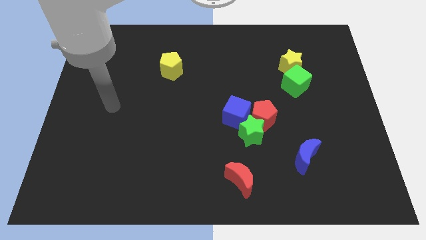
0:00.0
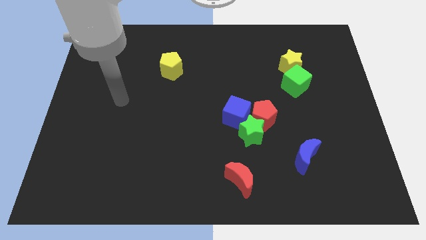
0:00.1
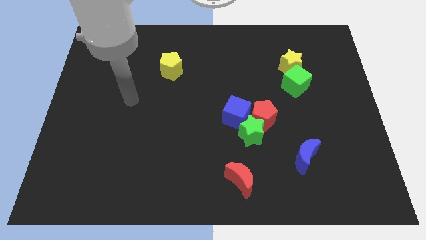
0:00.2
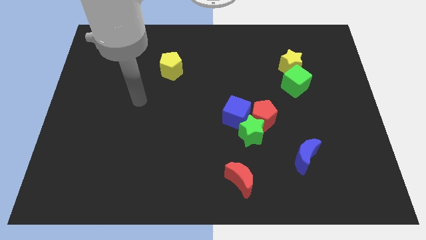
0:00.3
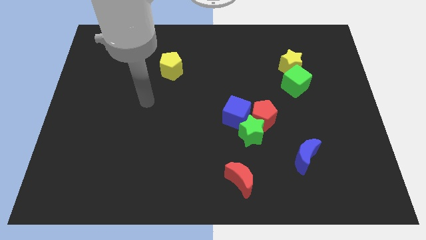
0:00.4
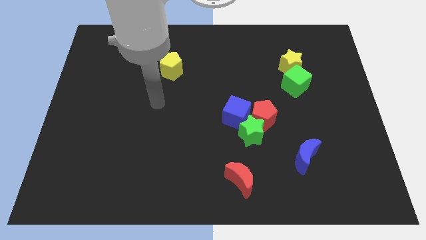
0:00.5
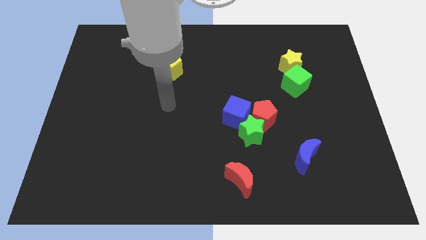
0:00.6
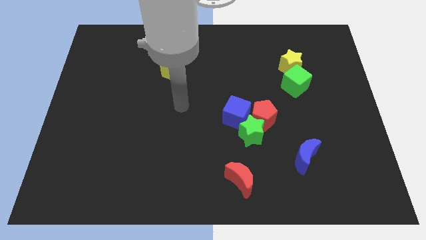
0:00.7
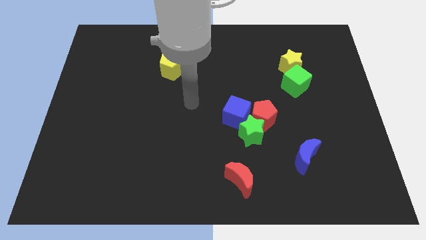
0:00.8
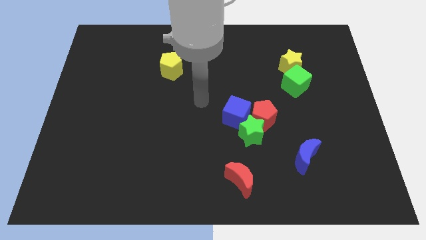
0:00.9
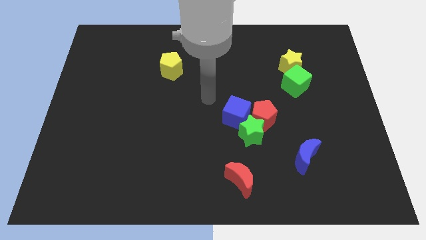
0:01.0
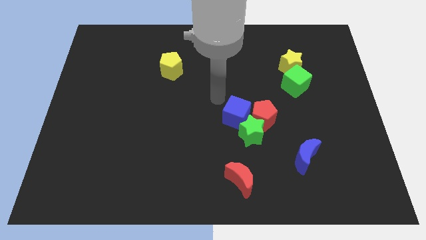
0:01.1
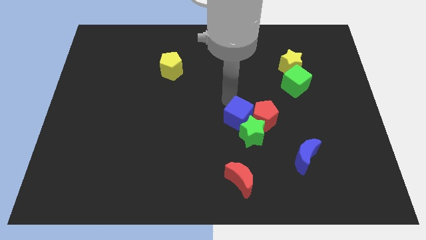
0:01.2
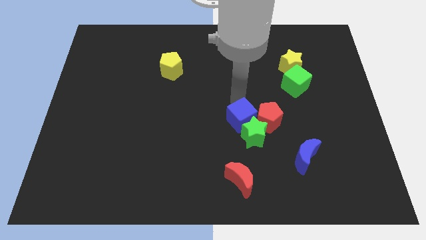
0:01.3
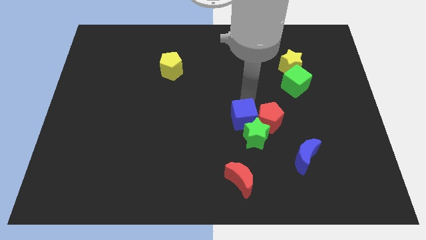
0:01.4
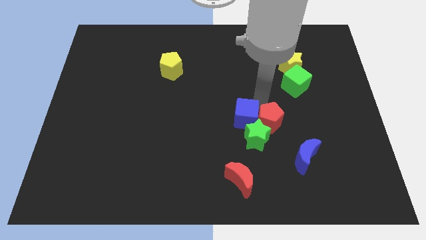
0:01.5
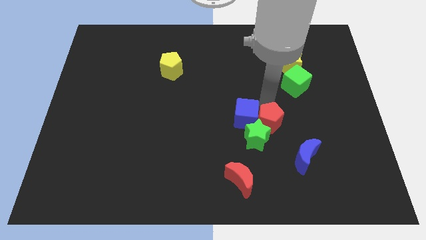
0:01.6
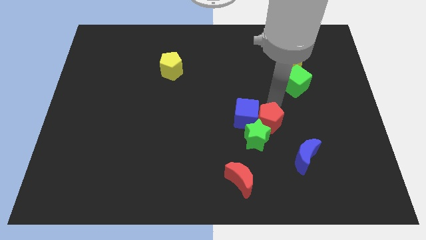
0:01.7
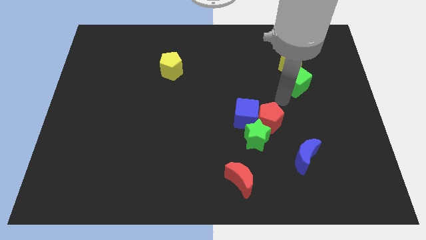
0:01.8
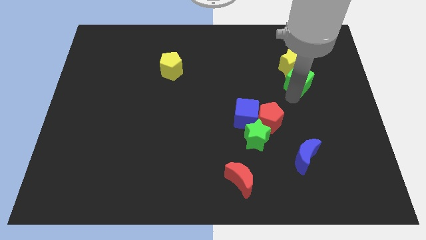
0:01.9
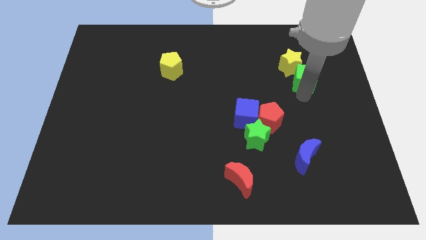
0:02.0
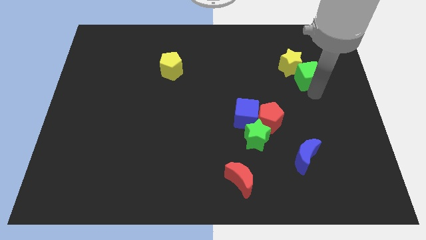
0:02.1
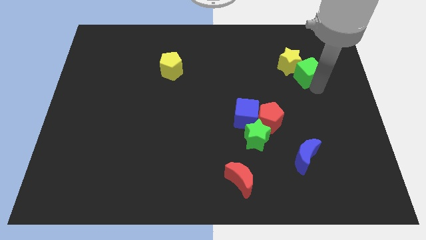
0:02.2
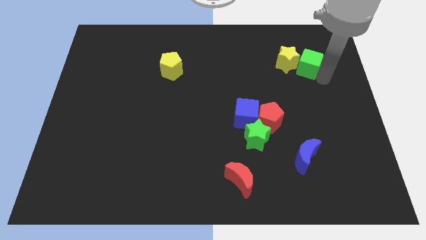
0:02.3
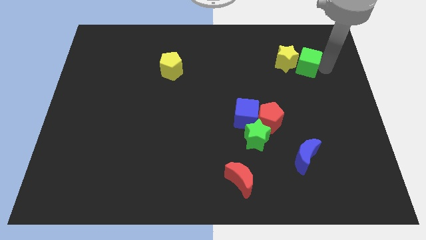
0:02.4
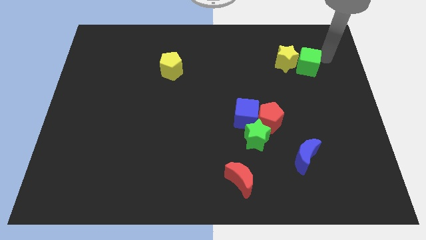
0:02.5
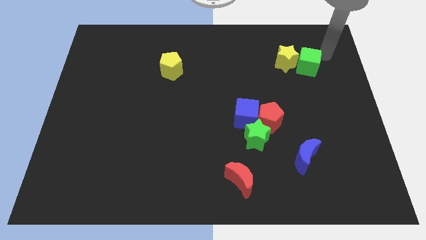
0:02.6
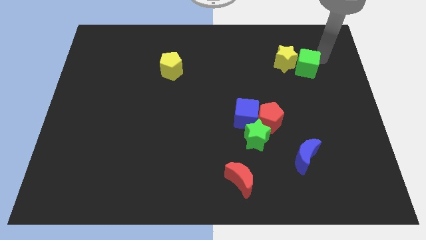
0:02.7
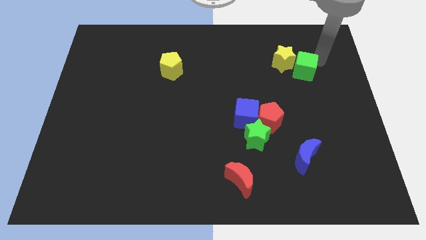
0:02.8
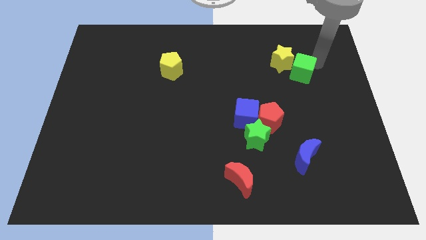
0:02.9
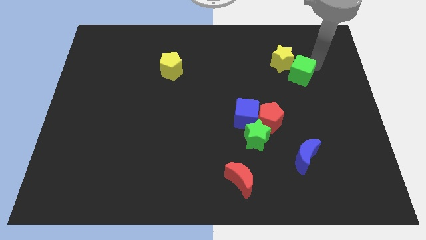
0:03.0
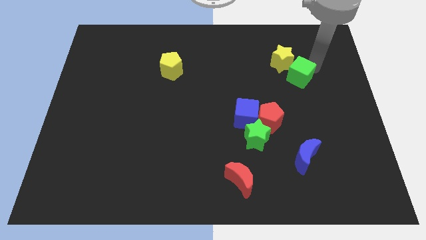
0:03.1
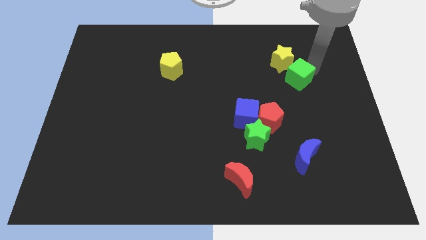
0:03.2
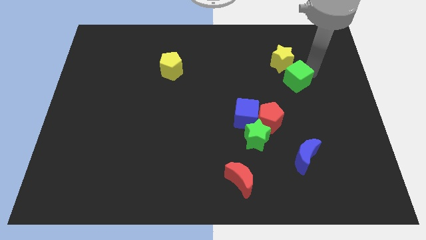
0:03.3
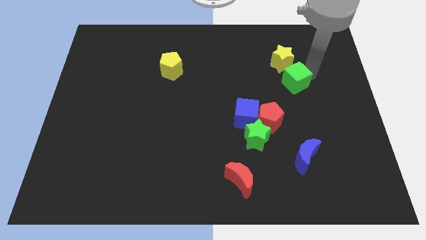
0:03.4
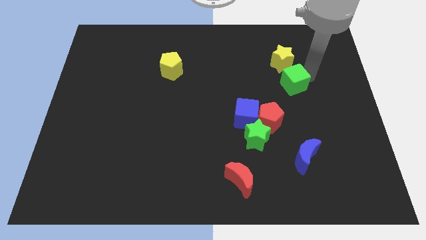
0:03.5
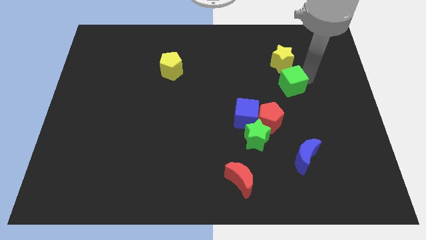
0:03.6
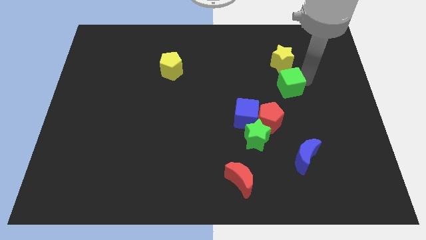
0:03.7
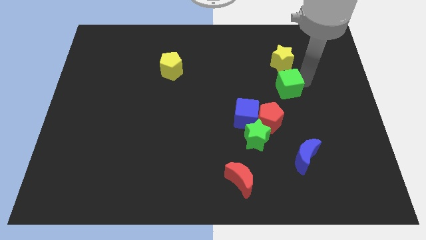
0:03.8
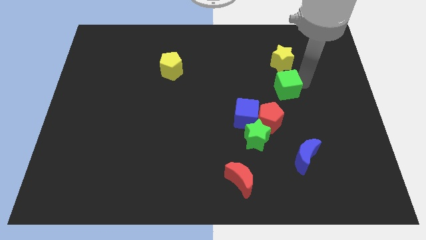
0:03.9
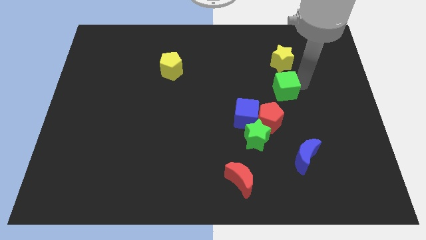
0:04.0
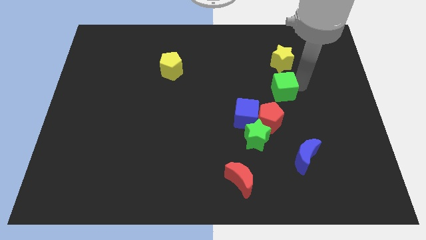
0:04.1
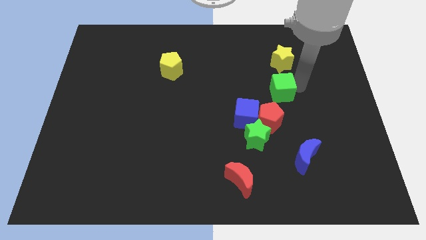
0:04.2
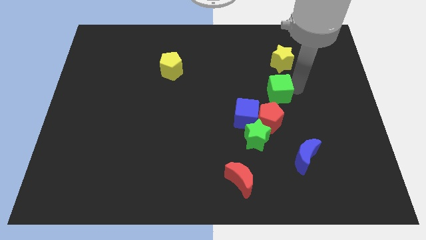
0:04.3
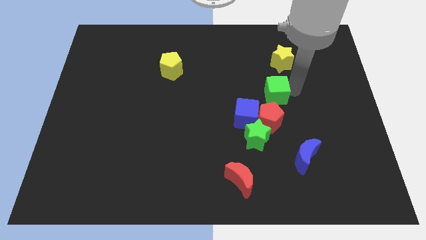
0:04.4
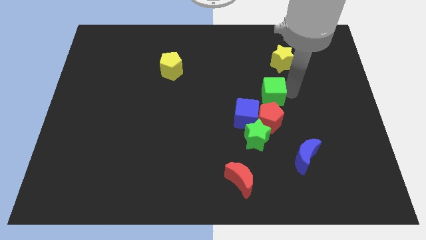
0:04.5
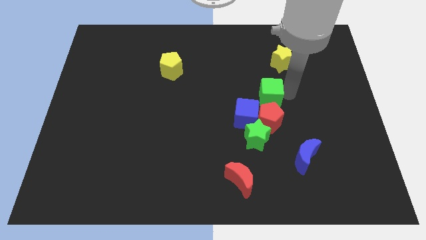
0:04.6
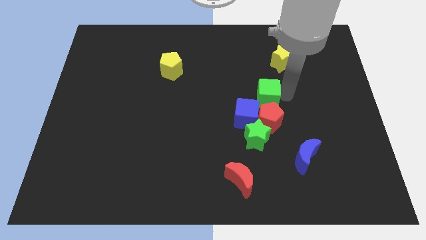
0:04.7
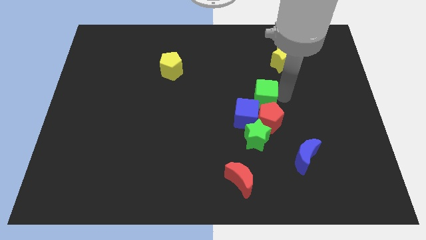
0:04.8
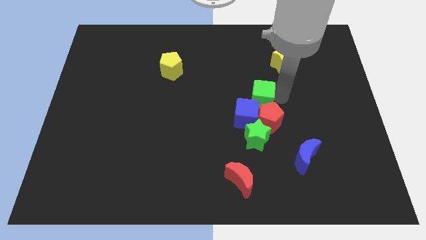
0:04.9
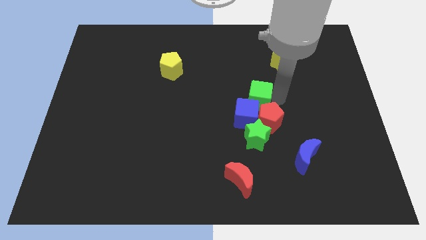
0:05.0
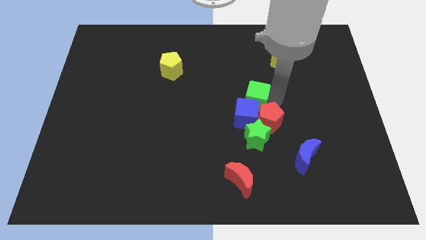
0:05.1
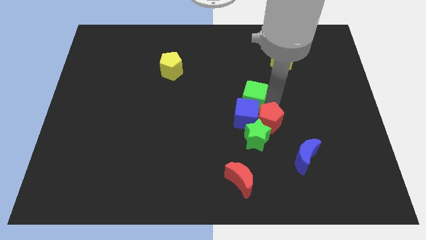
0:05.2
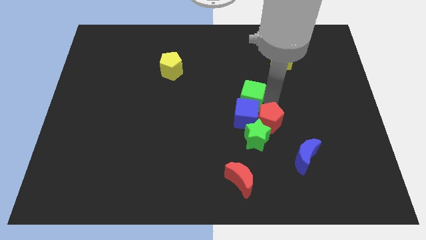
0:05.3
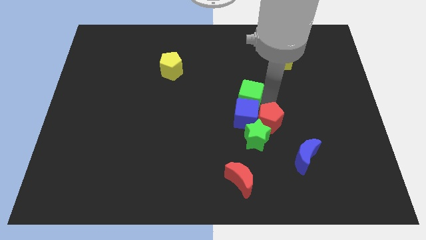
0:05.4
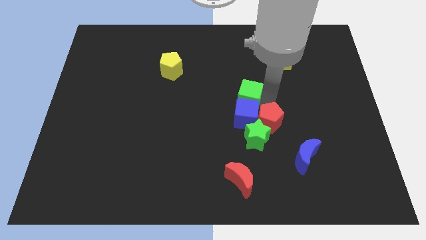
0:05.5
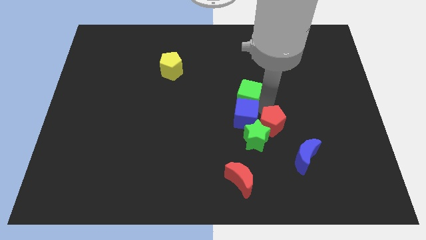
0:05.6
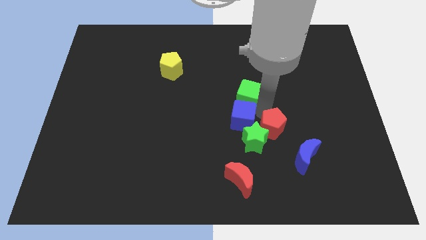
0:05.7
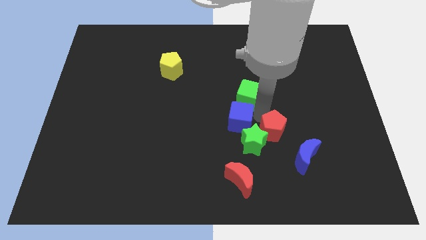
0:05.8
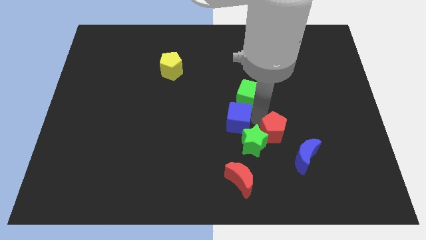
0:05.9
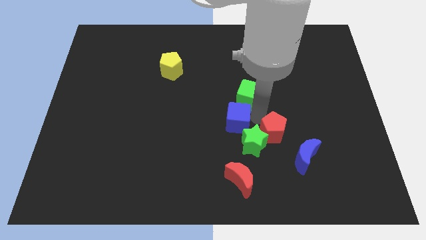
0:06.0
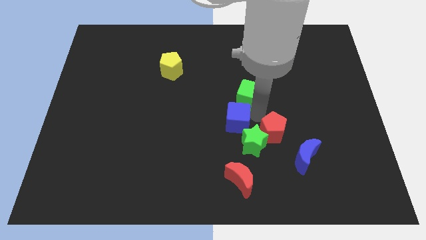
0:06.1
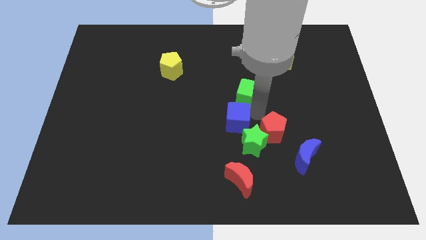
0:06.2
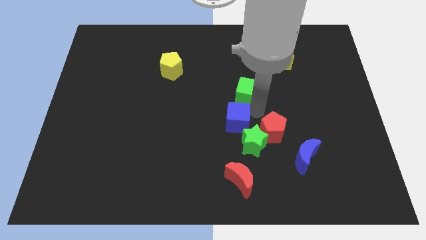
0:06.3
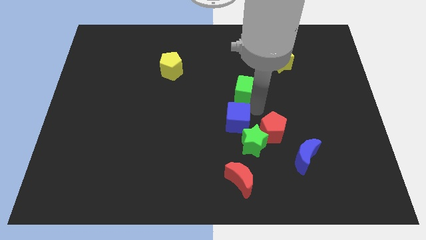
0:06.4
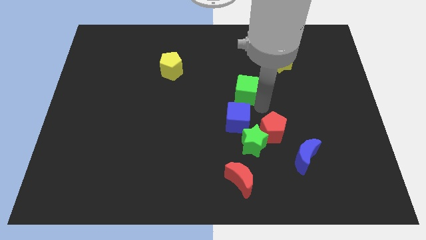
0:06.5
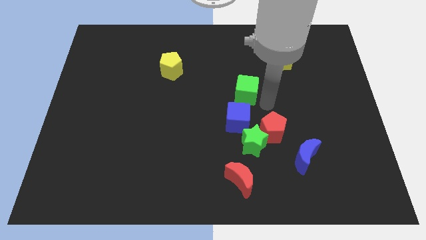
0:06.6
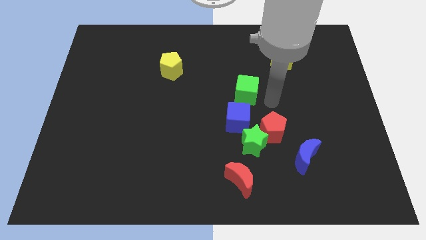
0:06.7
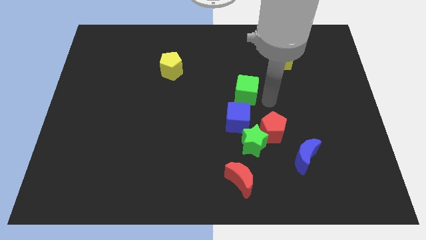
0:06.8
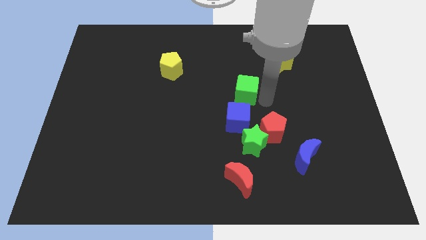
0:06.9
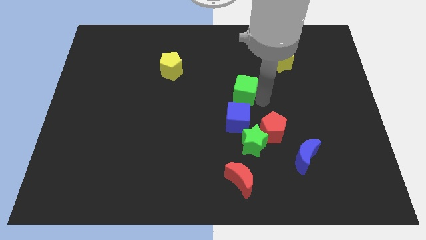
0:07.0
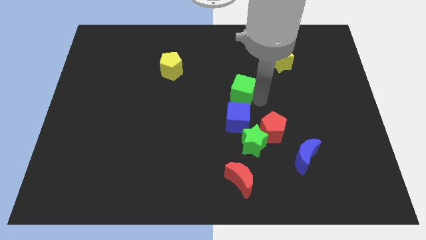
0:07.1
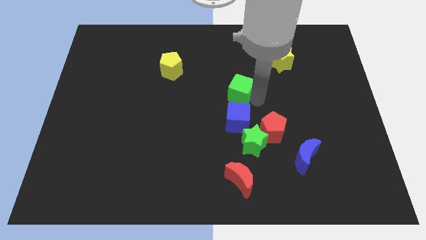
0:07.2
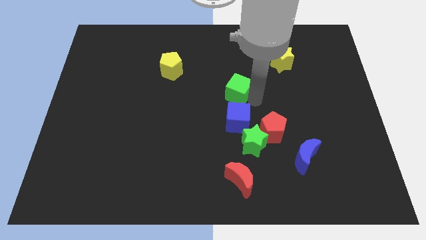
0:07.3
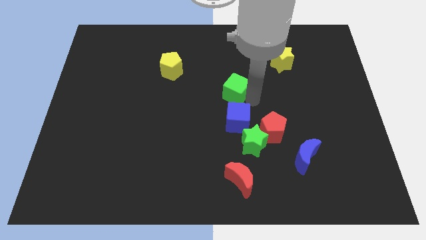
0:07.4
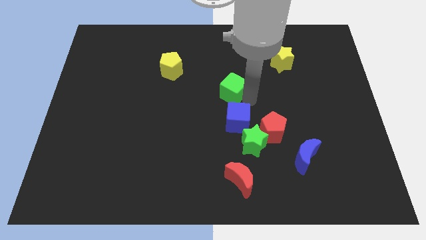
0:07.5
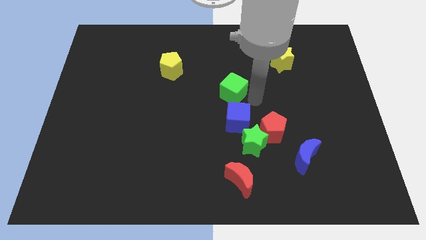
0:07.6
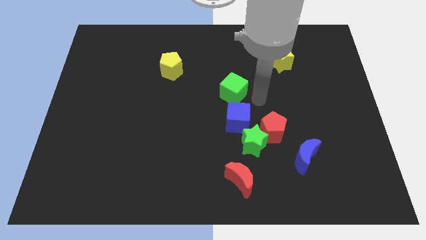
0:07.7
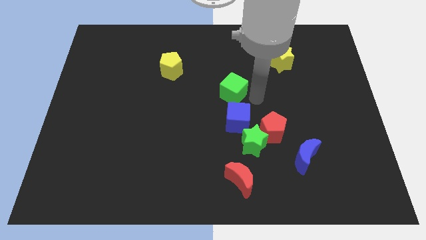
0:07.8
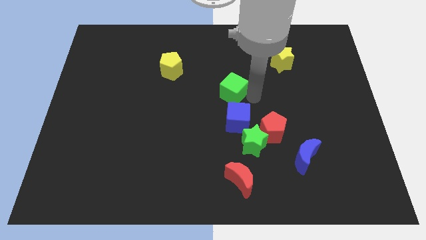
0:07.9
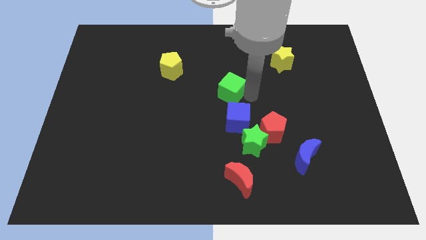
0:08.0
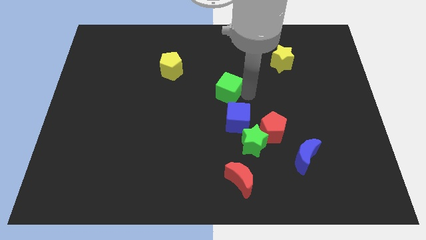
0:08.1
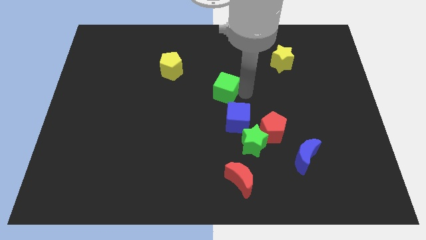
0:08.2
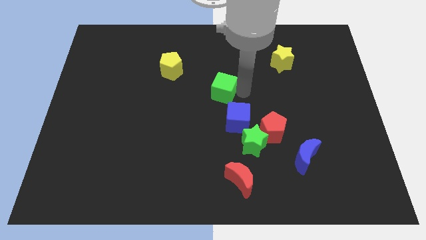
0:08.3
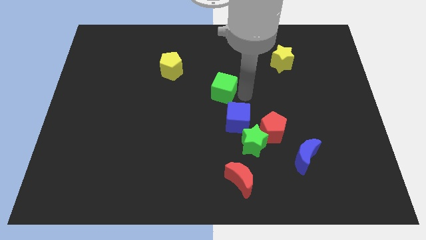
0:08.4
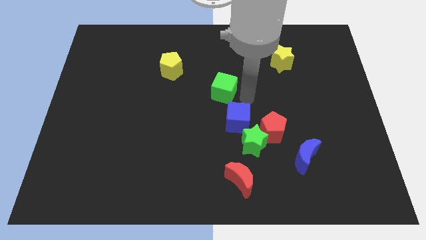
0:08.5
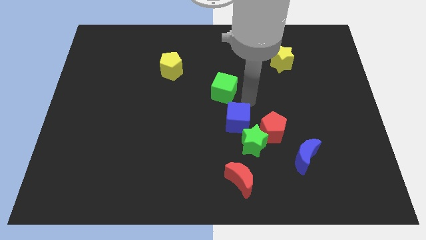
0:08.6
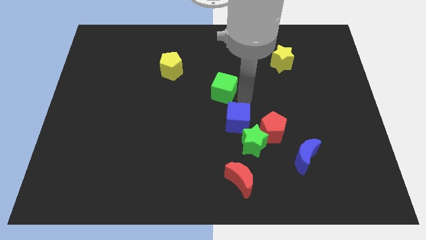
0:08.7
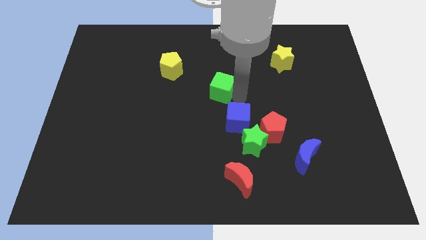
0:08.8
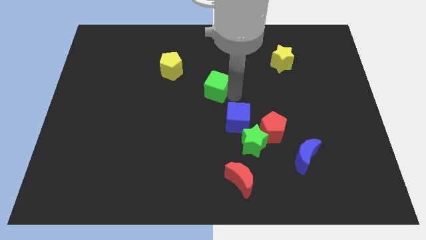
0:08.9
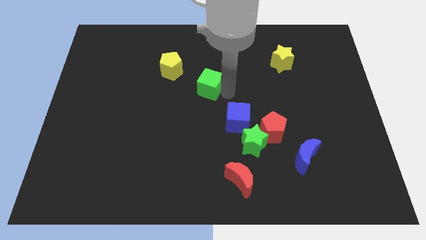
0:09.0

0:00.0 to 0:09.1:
move the green cube to the left
